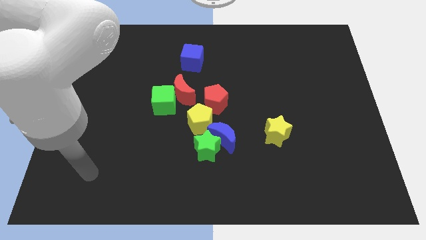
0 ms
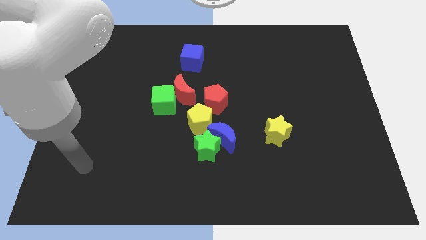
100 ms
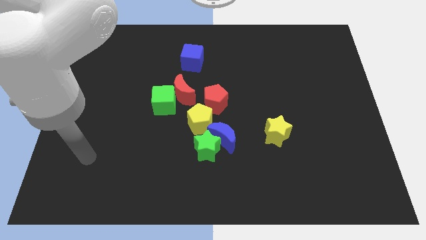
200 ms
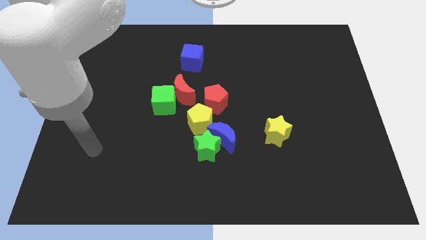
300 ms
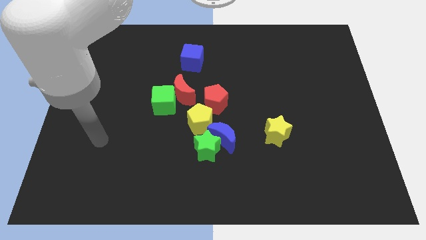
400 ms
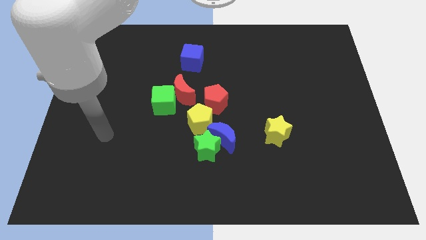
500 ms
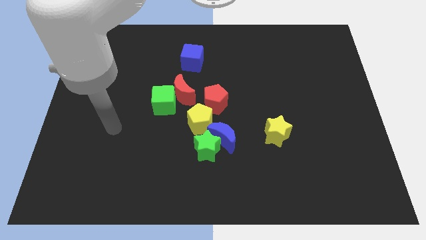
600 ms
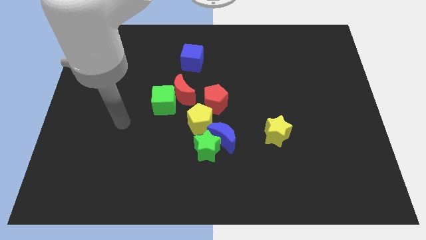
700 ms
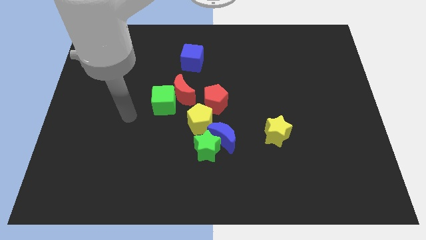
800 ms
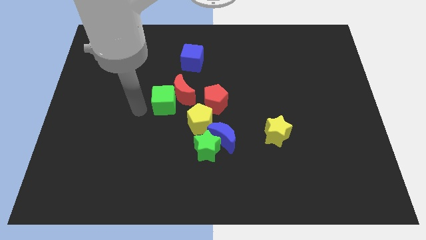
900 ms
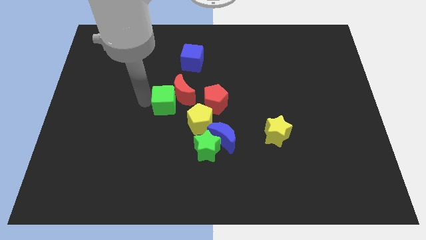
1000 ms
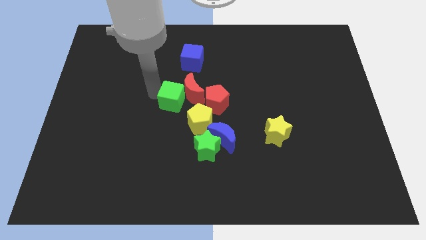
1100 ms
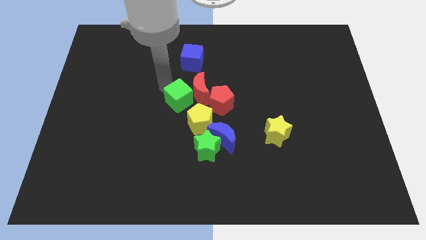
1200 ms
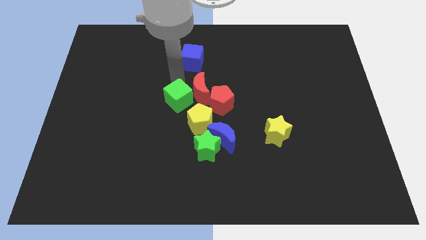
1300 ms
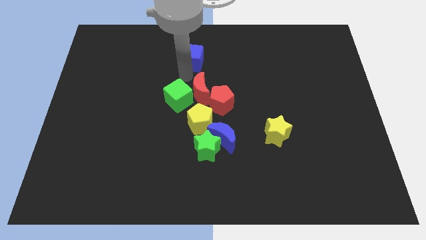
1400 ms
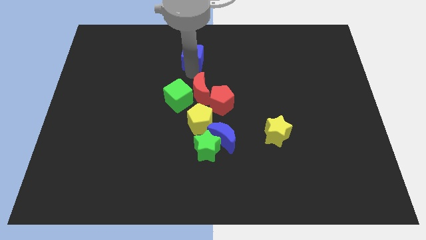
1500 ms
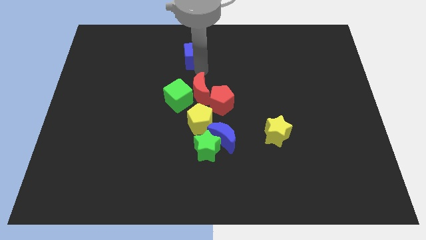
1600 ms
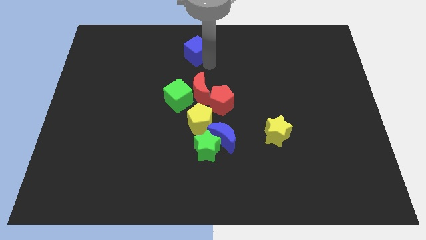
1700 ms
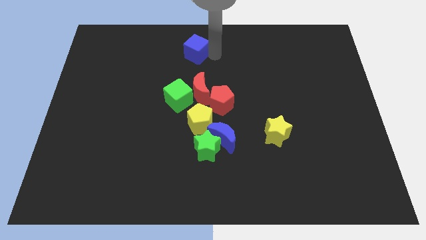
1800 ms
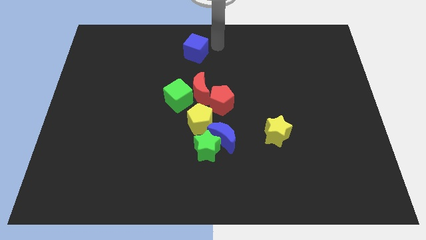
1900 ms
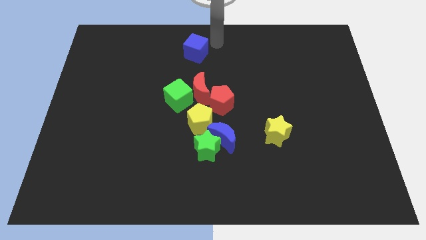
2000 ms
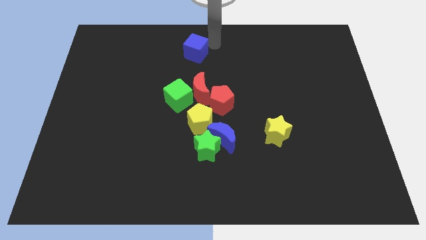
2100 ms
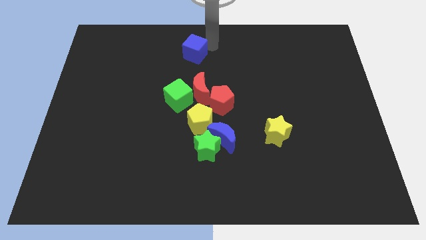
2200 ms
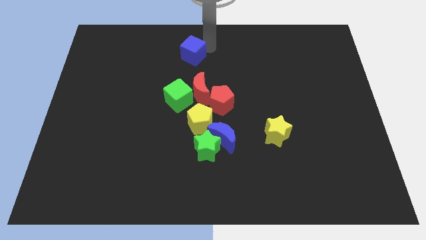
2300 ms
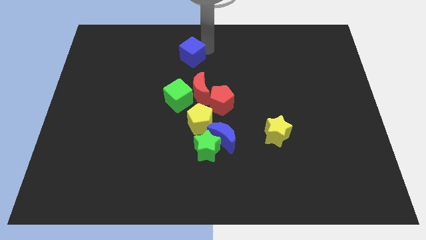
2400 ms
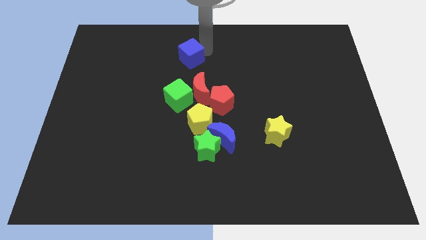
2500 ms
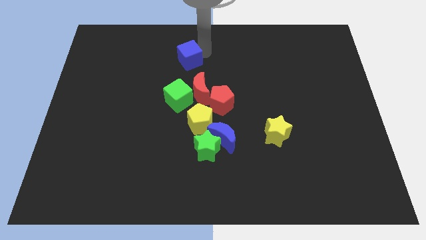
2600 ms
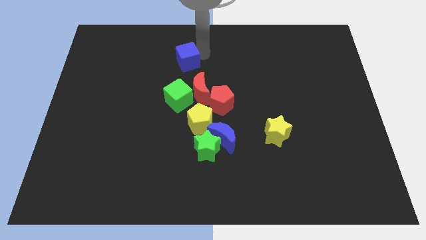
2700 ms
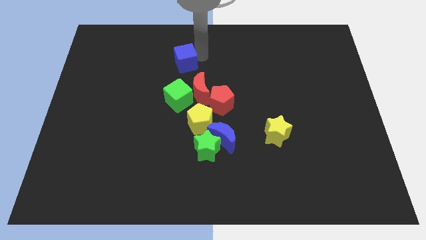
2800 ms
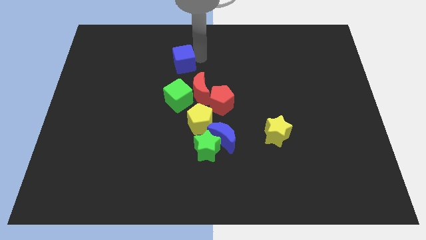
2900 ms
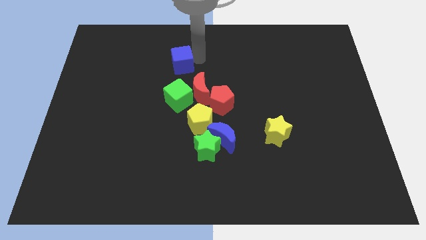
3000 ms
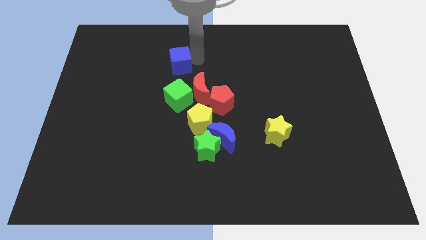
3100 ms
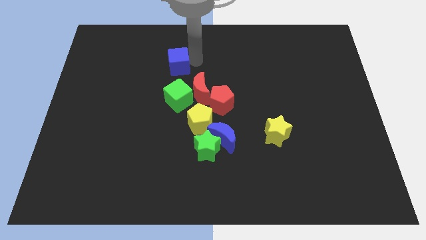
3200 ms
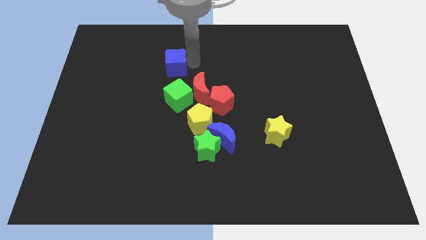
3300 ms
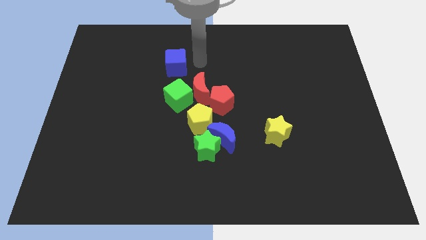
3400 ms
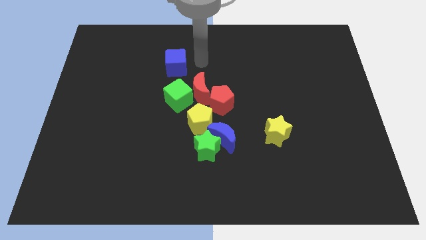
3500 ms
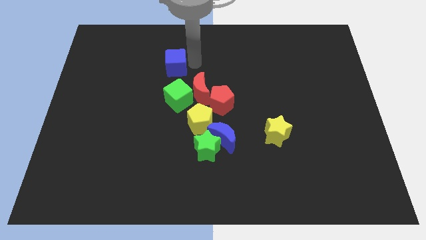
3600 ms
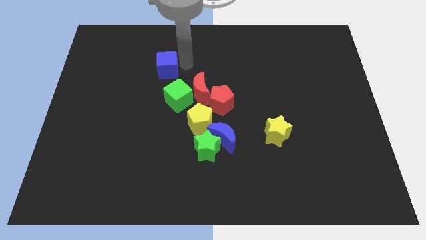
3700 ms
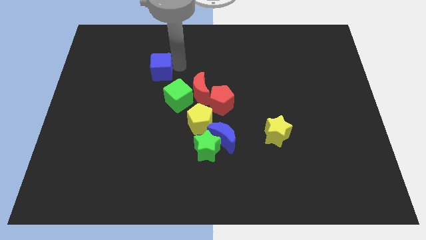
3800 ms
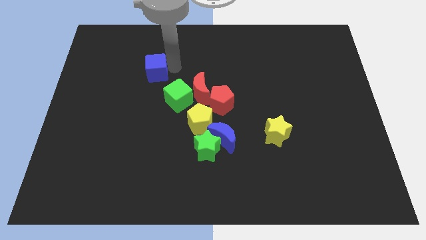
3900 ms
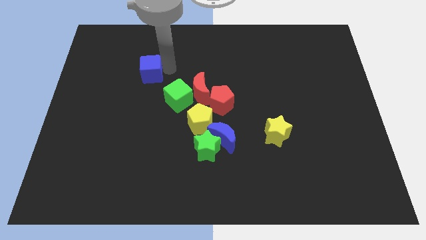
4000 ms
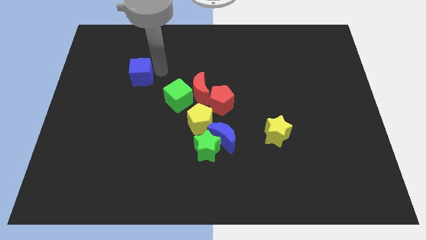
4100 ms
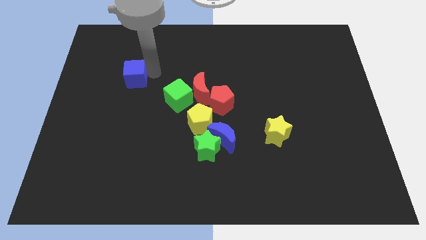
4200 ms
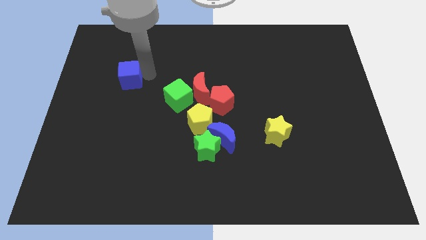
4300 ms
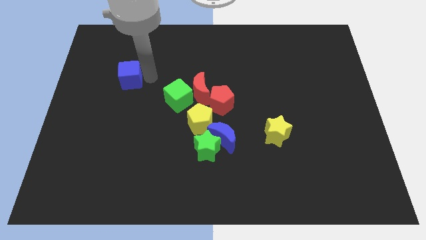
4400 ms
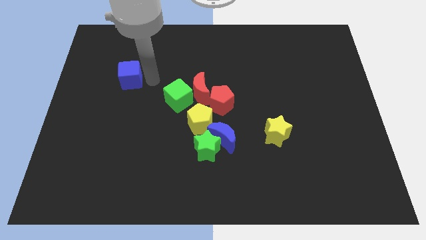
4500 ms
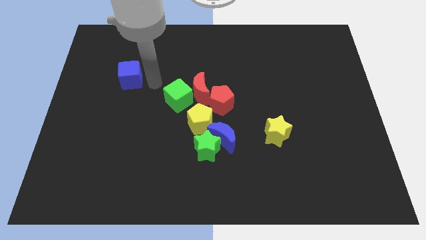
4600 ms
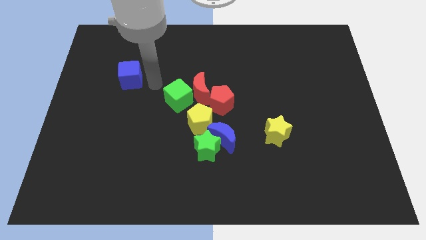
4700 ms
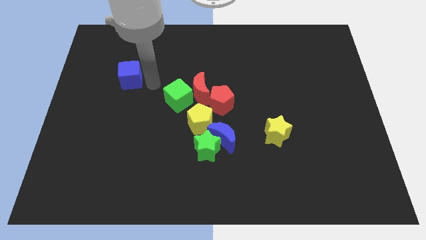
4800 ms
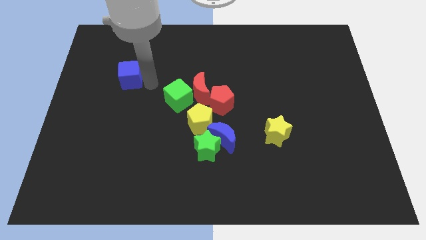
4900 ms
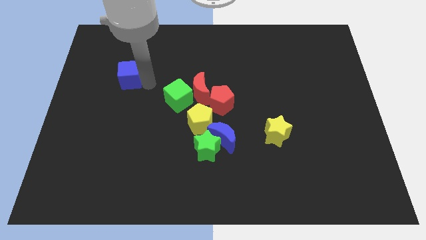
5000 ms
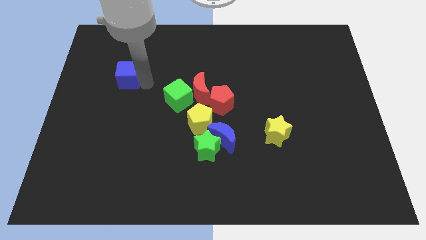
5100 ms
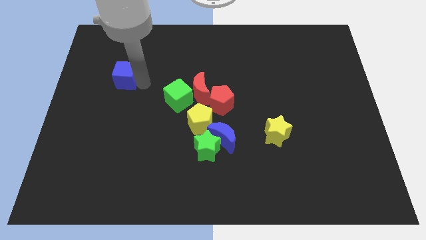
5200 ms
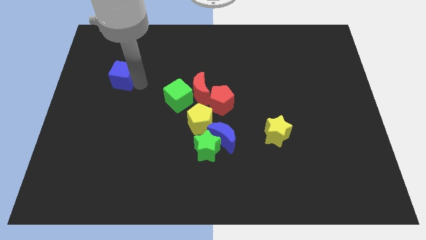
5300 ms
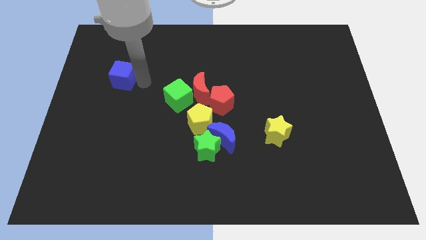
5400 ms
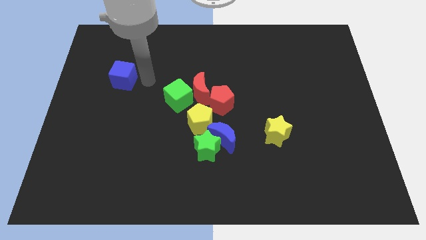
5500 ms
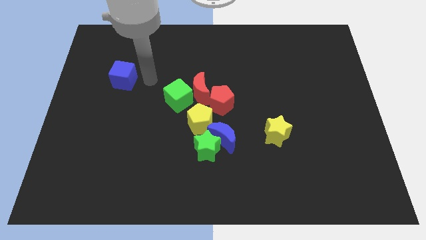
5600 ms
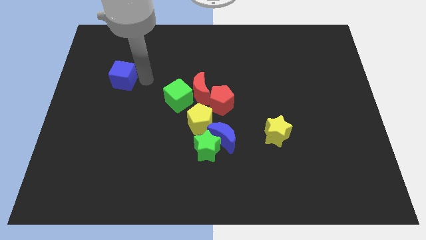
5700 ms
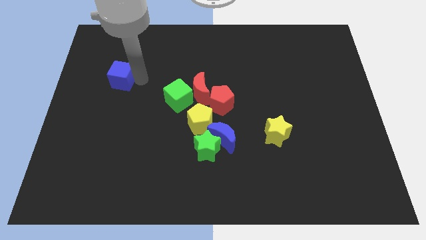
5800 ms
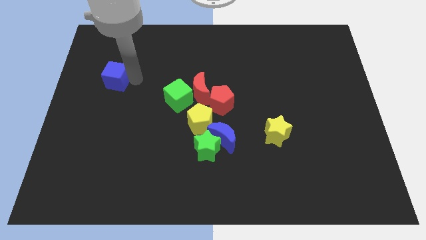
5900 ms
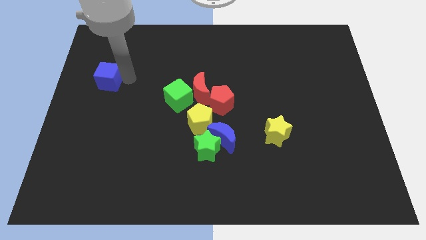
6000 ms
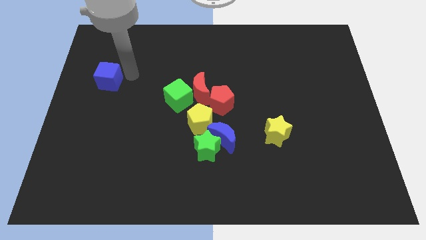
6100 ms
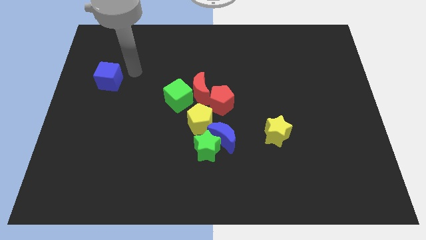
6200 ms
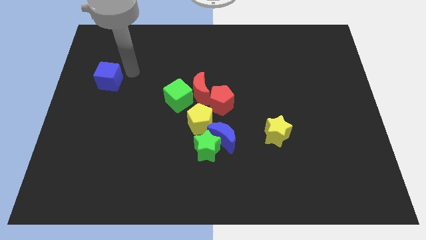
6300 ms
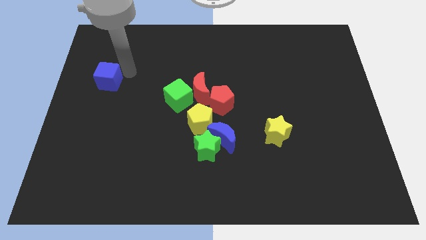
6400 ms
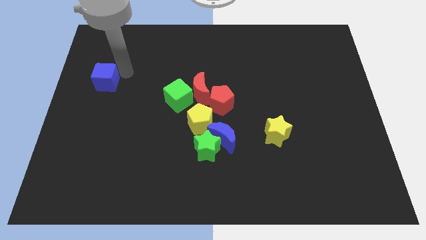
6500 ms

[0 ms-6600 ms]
push the blue cube to the left side
